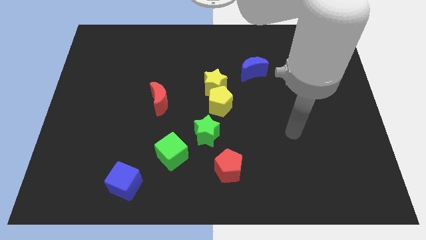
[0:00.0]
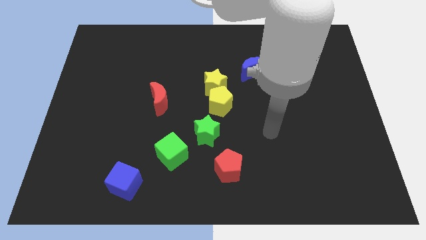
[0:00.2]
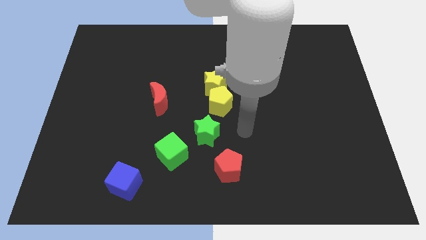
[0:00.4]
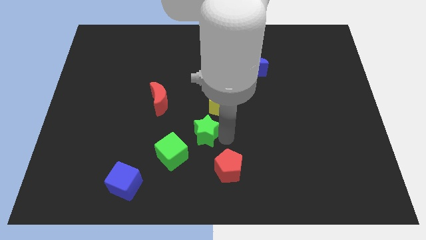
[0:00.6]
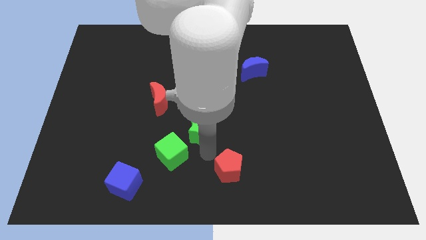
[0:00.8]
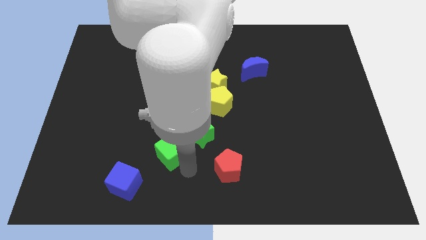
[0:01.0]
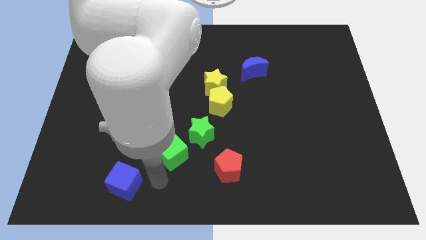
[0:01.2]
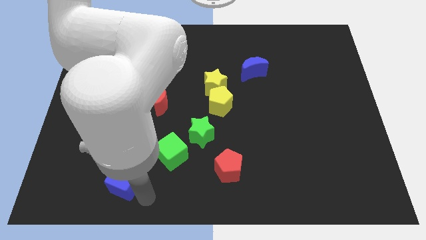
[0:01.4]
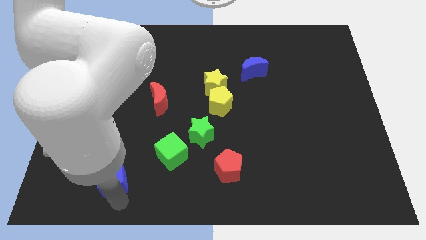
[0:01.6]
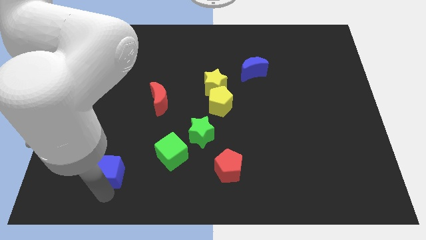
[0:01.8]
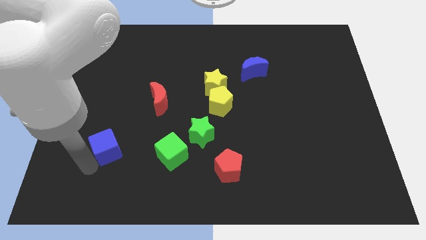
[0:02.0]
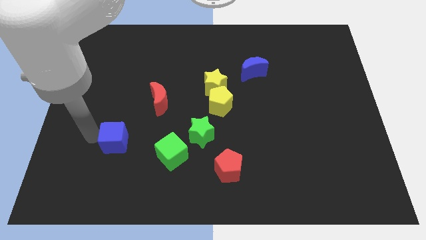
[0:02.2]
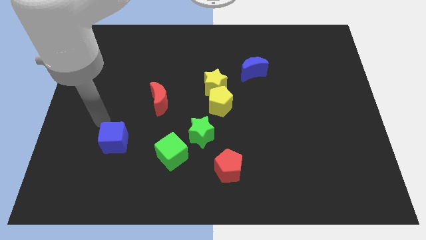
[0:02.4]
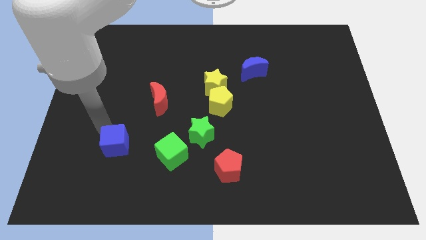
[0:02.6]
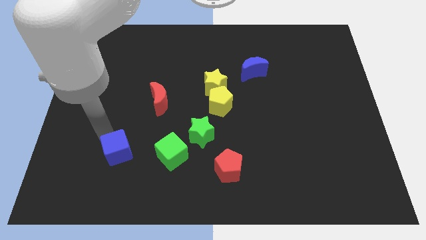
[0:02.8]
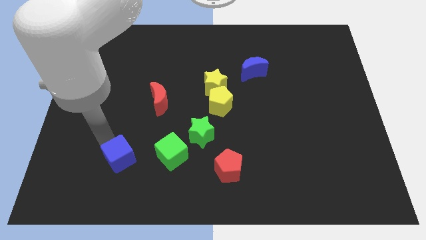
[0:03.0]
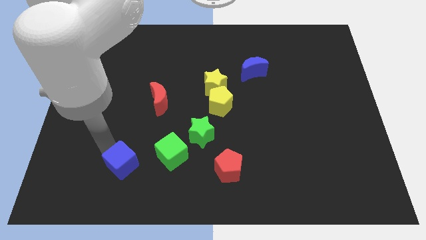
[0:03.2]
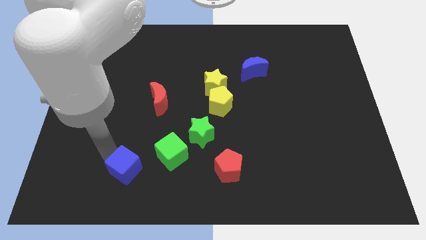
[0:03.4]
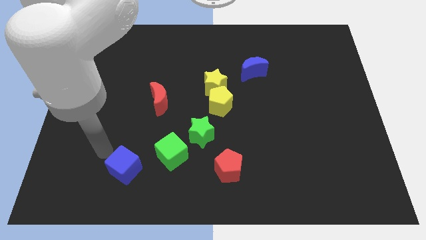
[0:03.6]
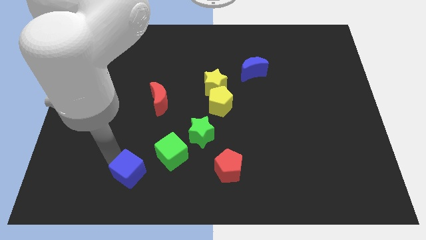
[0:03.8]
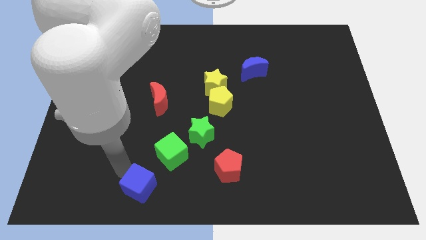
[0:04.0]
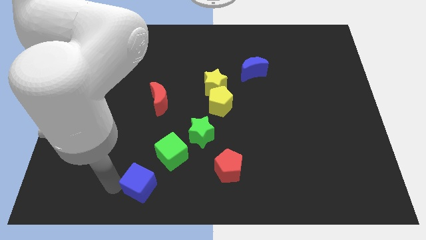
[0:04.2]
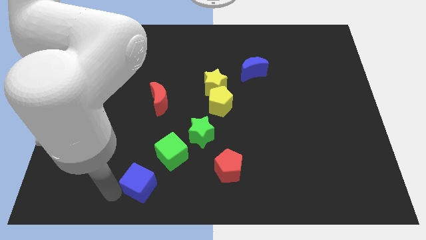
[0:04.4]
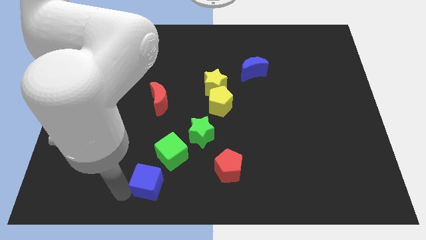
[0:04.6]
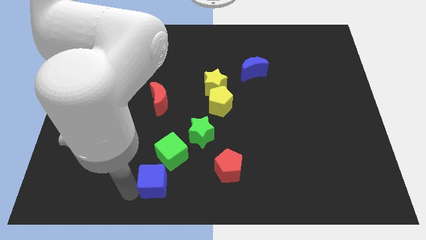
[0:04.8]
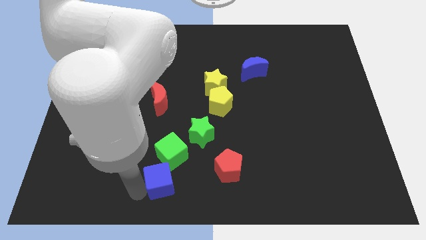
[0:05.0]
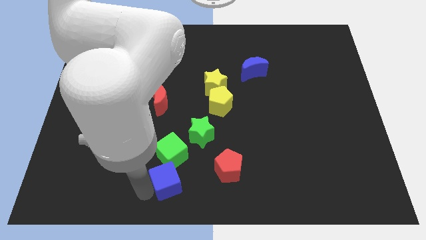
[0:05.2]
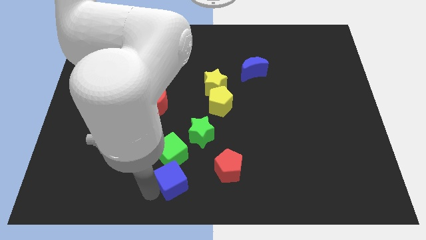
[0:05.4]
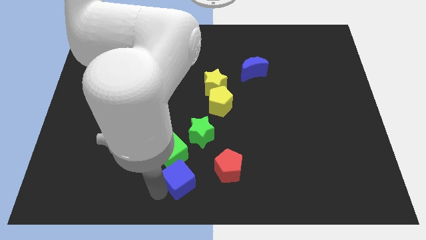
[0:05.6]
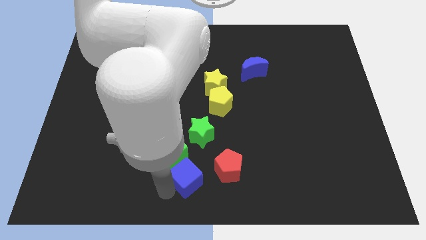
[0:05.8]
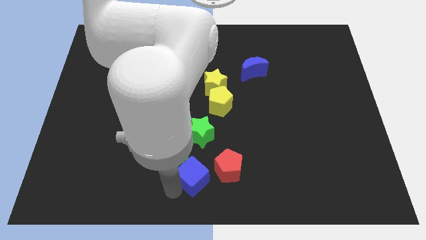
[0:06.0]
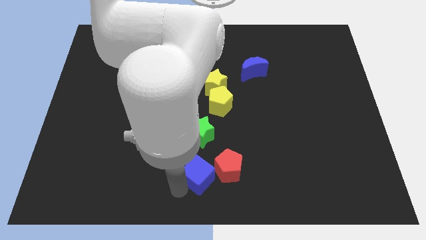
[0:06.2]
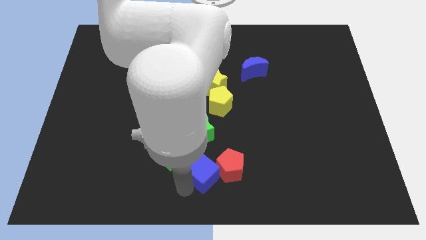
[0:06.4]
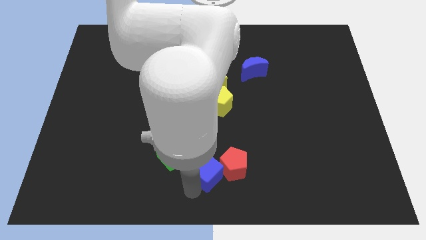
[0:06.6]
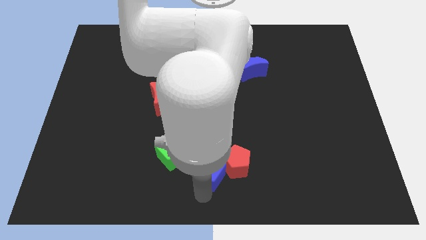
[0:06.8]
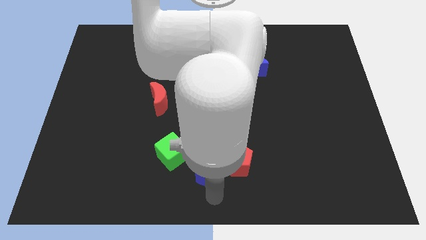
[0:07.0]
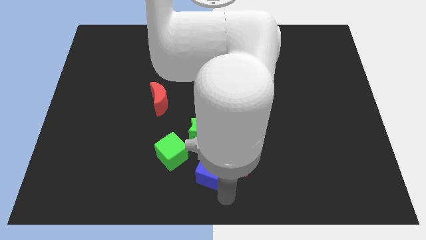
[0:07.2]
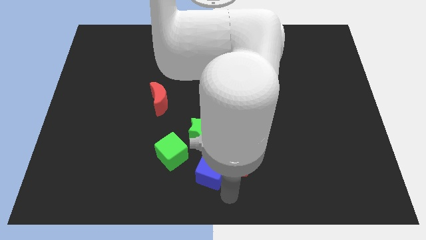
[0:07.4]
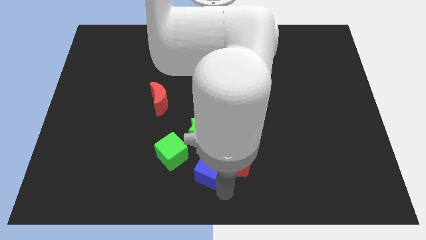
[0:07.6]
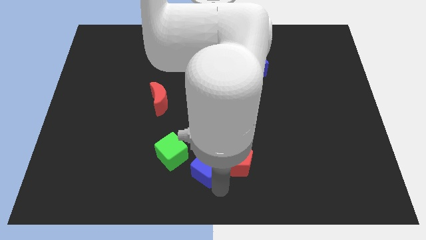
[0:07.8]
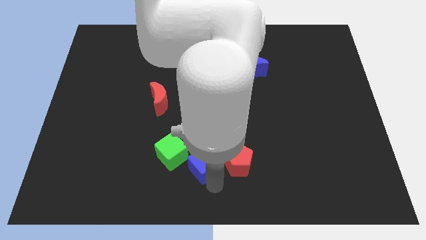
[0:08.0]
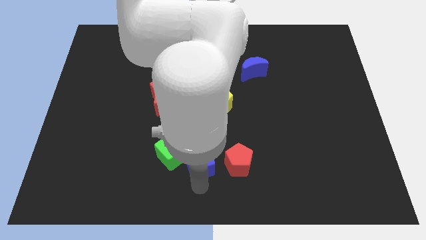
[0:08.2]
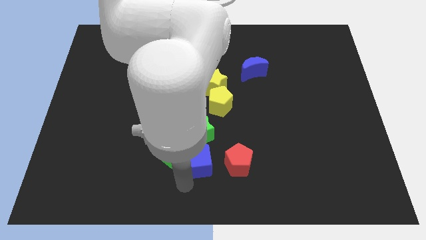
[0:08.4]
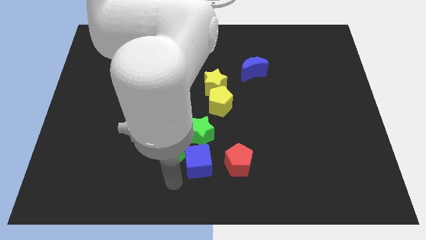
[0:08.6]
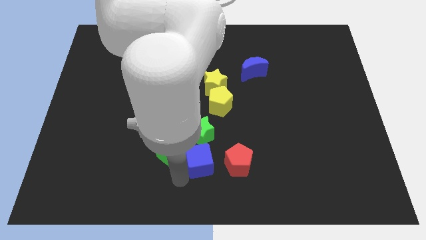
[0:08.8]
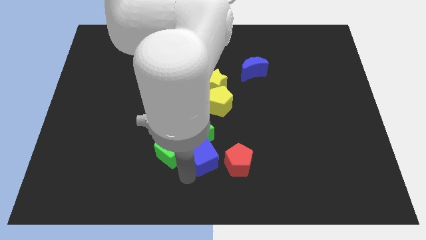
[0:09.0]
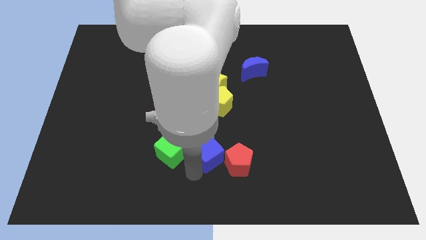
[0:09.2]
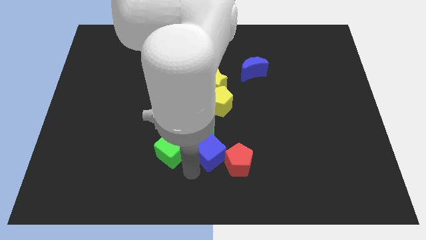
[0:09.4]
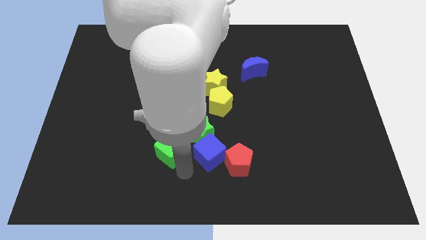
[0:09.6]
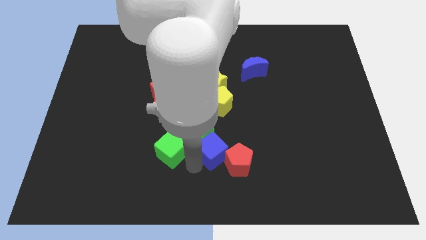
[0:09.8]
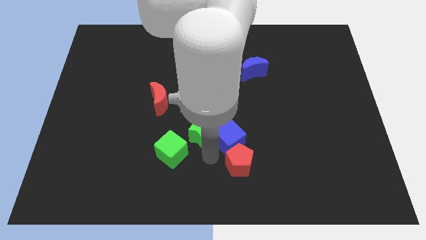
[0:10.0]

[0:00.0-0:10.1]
move the blue cube up and then to the right

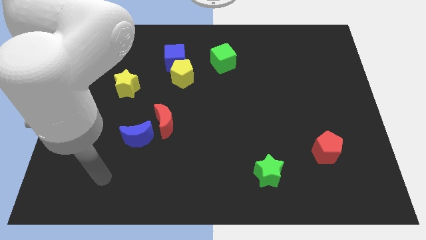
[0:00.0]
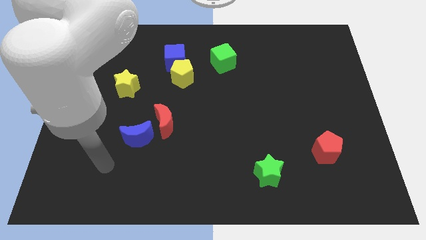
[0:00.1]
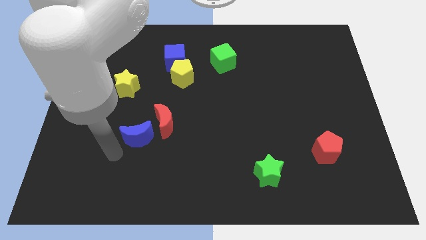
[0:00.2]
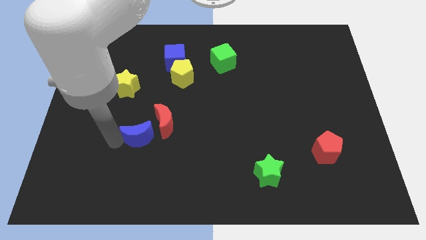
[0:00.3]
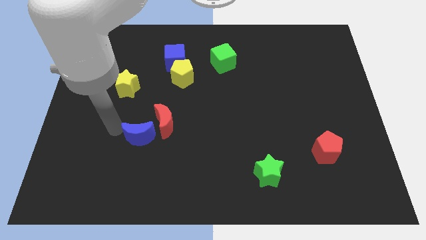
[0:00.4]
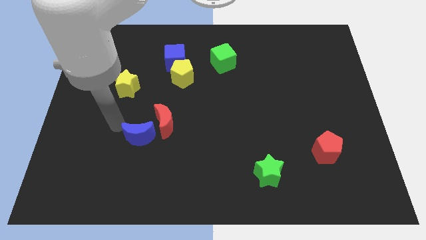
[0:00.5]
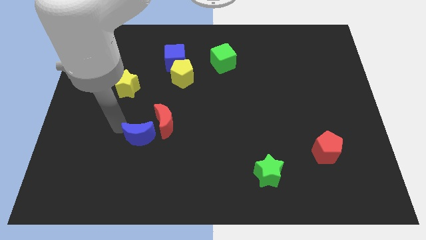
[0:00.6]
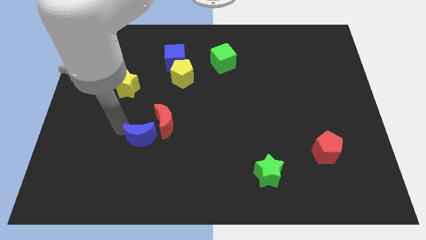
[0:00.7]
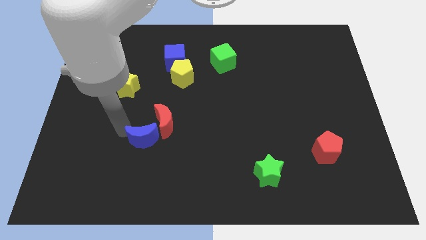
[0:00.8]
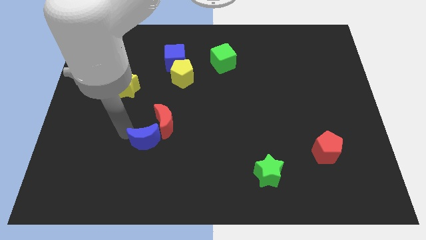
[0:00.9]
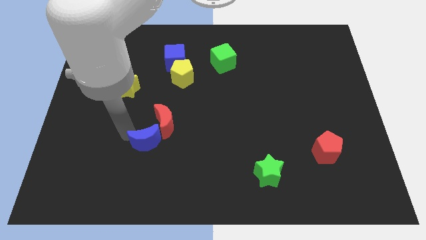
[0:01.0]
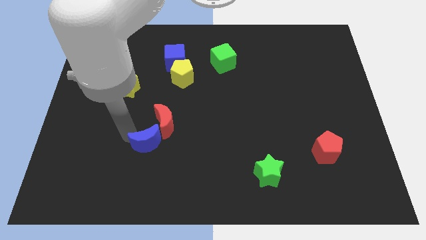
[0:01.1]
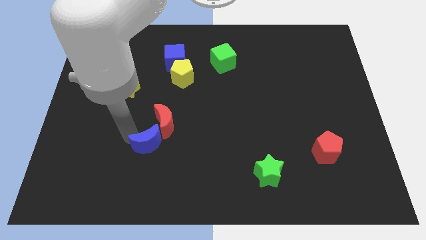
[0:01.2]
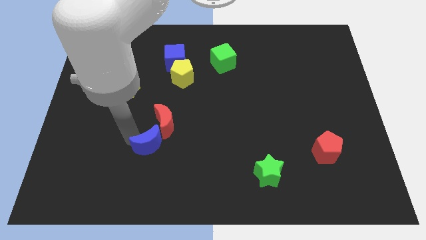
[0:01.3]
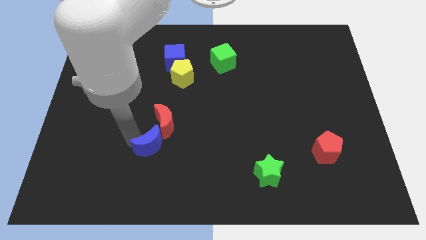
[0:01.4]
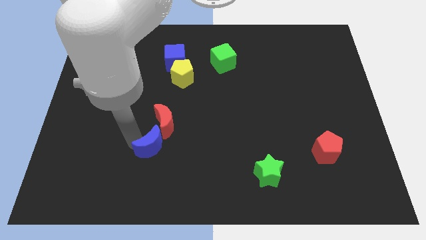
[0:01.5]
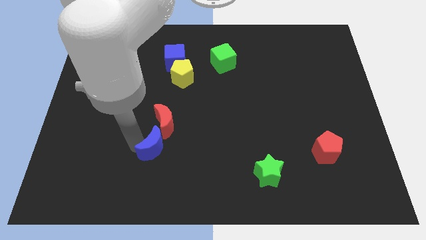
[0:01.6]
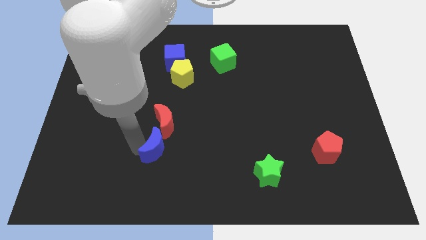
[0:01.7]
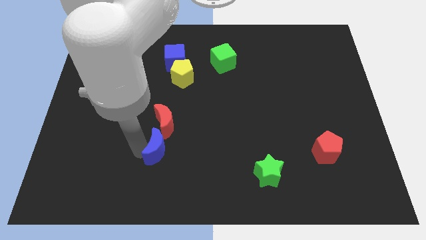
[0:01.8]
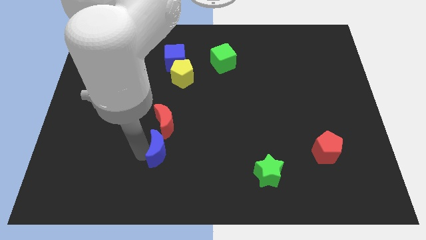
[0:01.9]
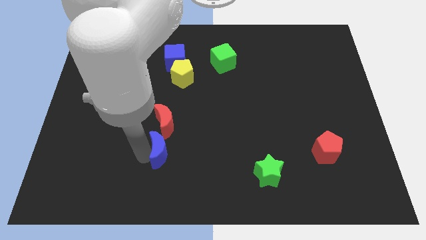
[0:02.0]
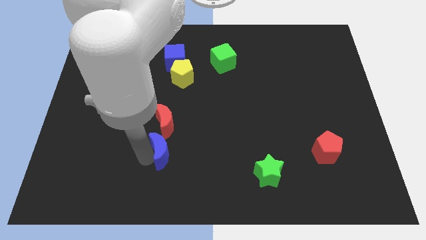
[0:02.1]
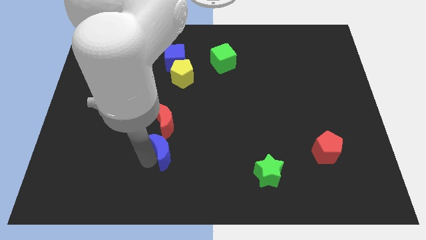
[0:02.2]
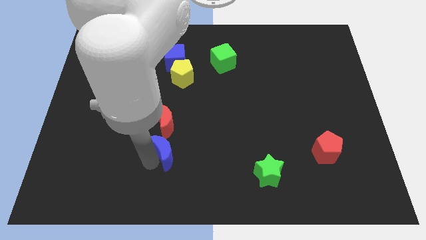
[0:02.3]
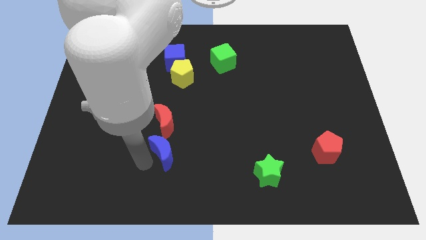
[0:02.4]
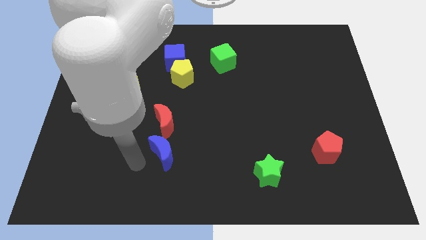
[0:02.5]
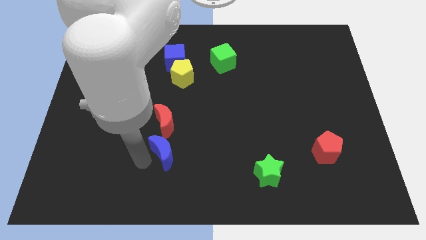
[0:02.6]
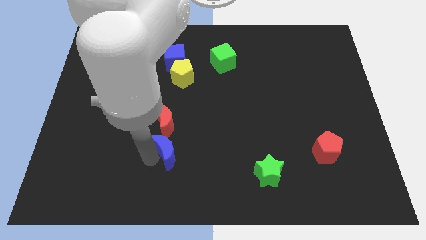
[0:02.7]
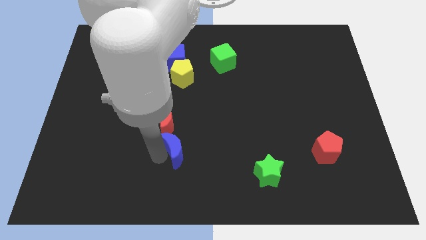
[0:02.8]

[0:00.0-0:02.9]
slide the blue moon a bit to the right
